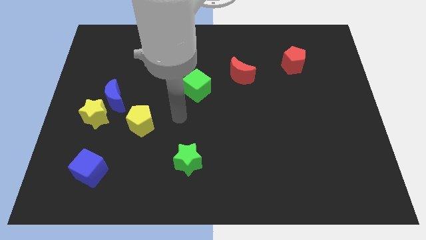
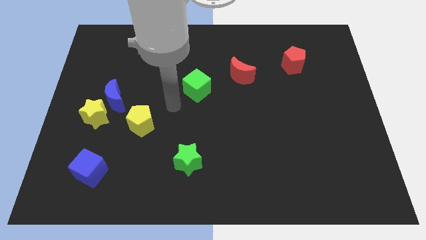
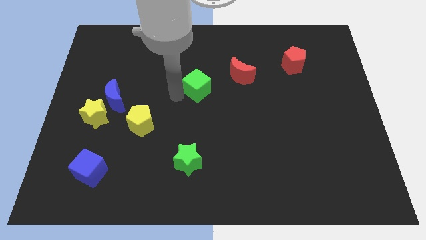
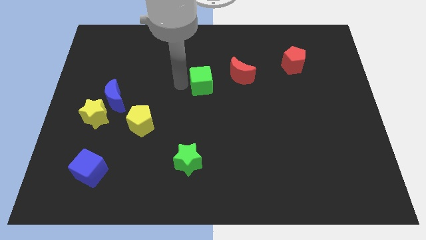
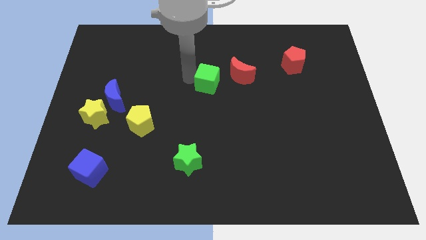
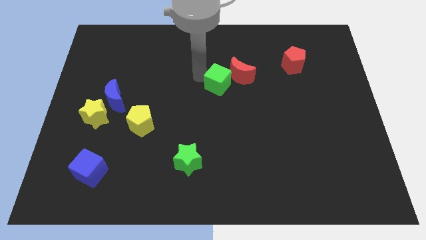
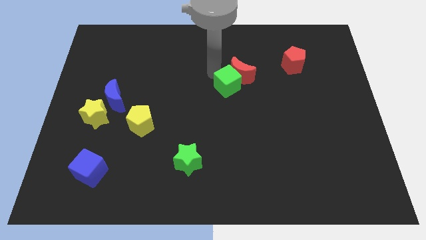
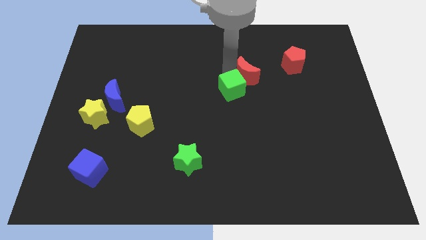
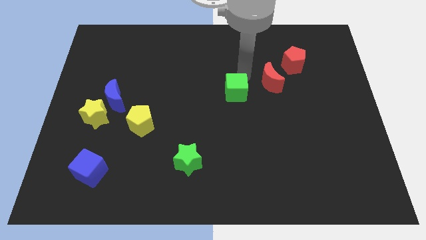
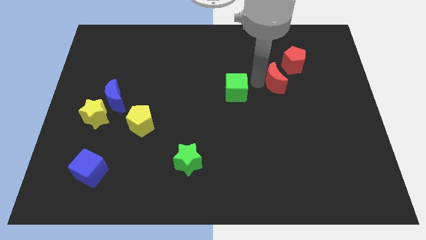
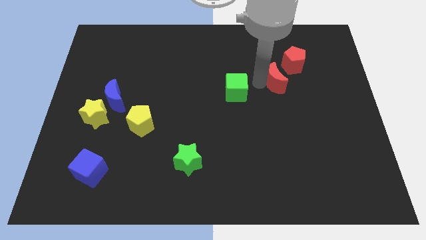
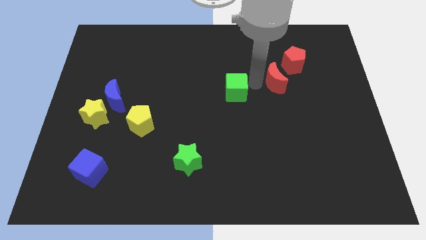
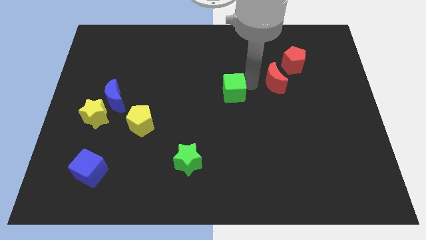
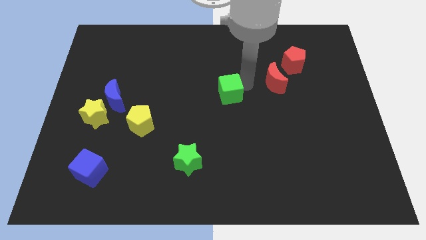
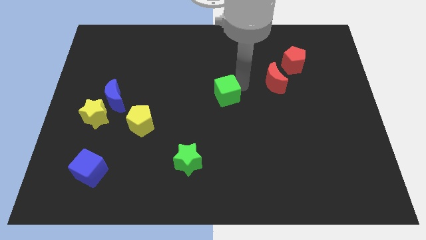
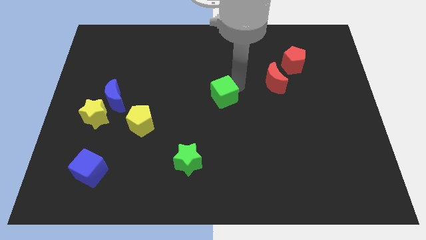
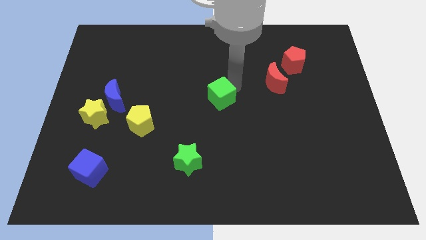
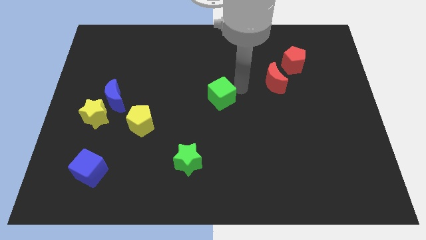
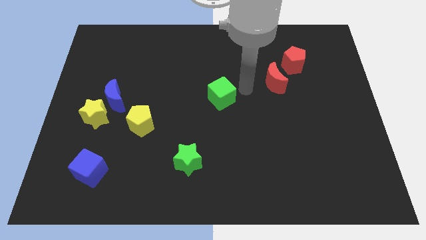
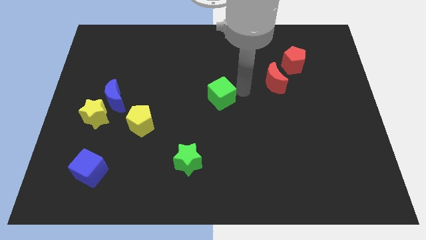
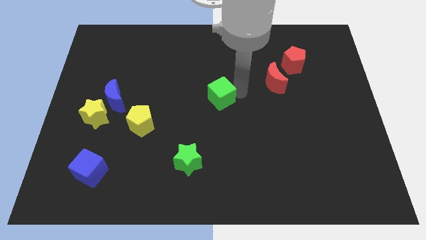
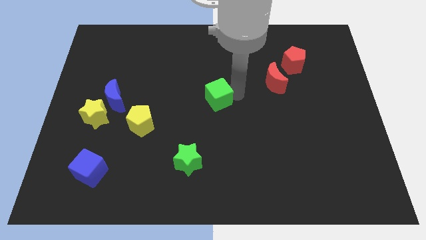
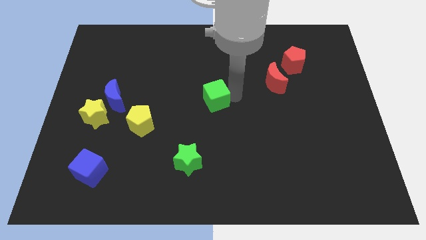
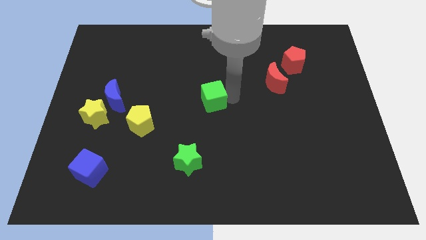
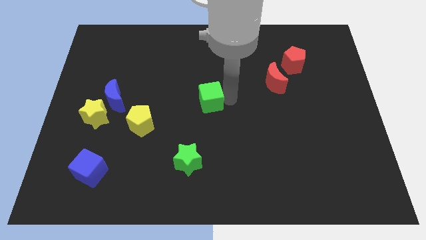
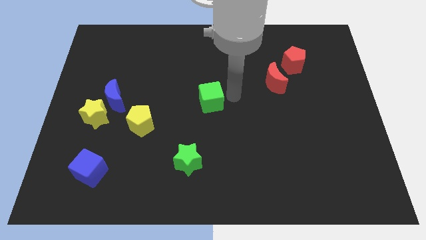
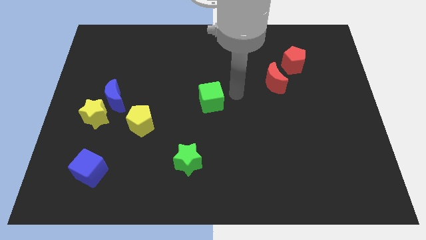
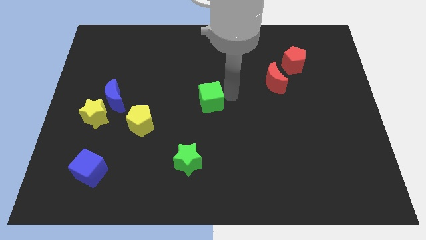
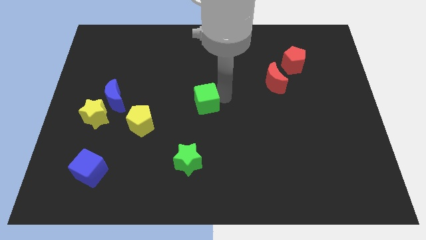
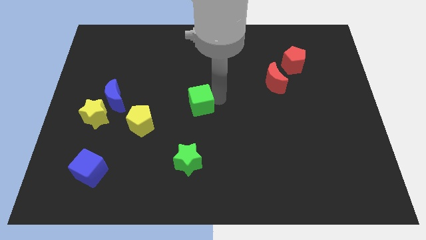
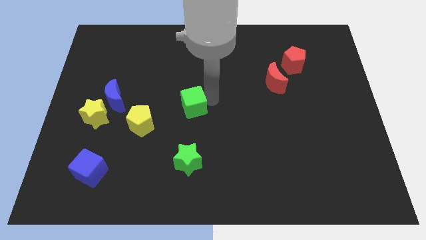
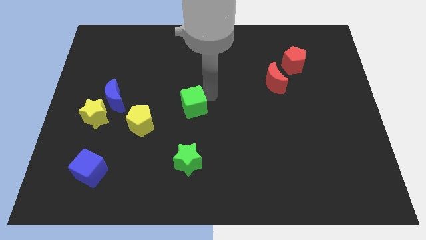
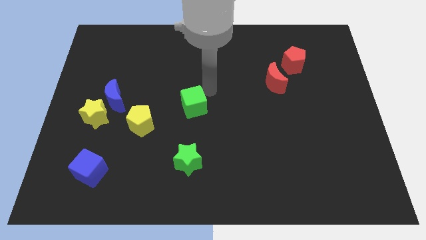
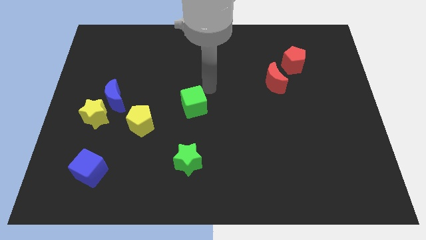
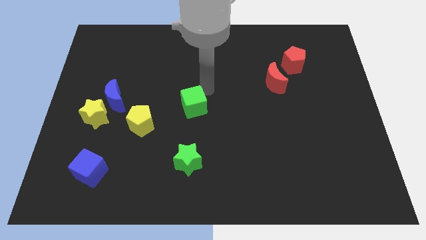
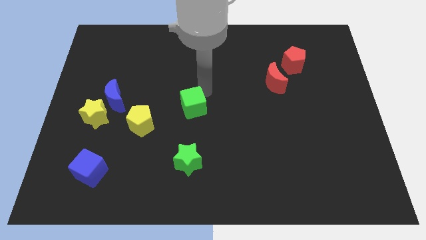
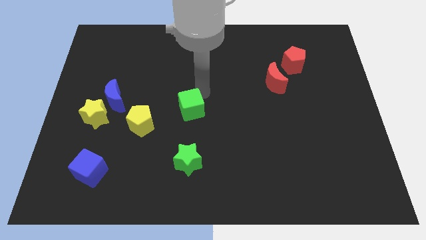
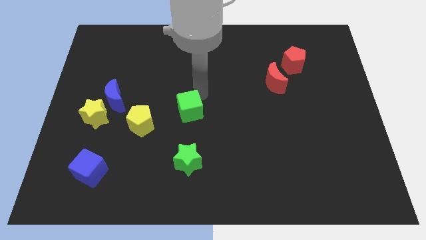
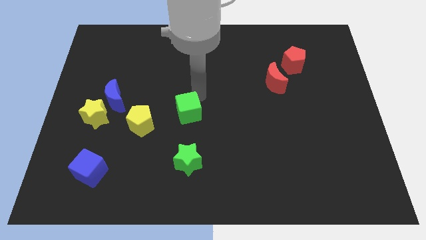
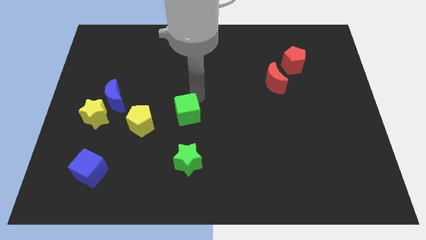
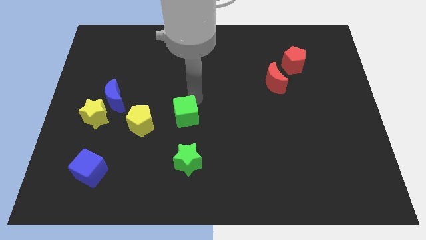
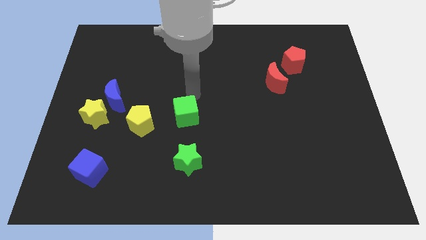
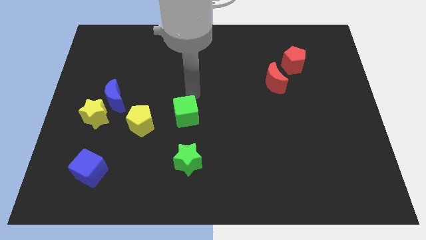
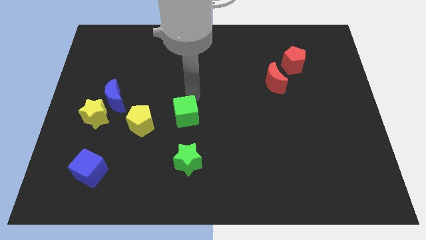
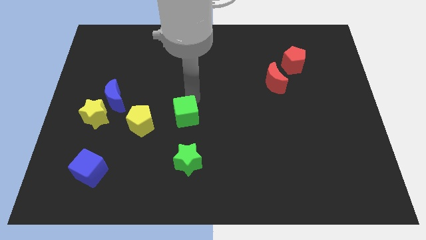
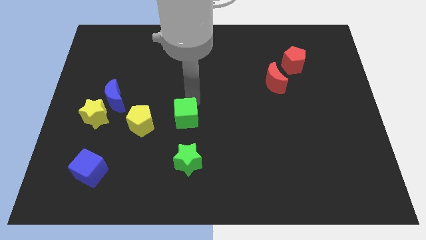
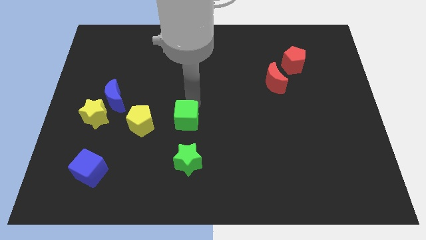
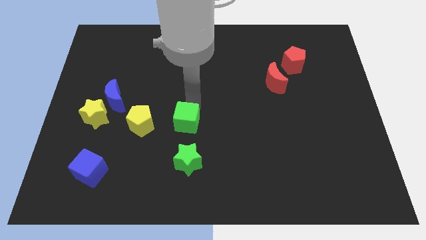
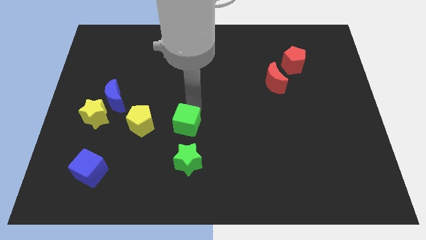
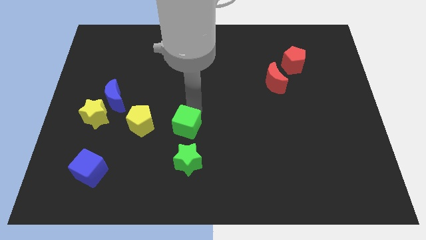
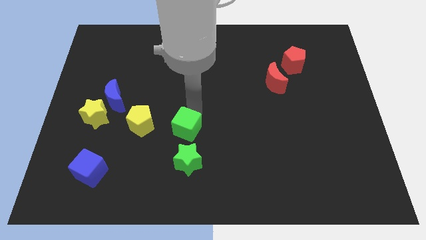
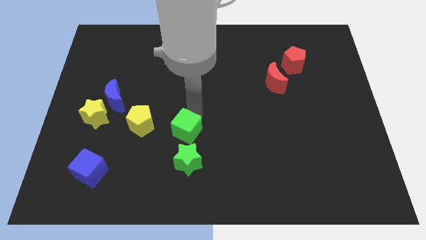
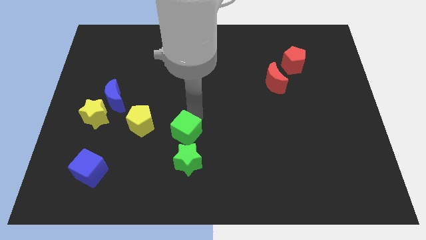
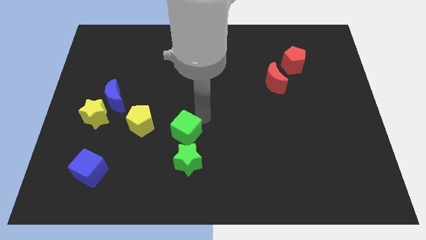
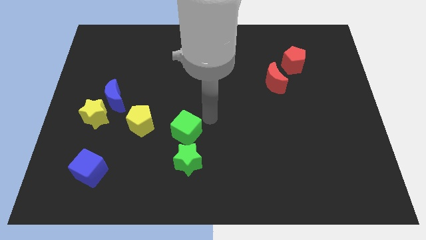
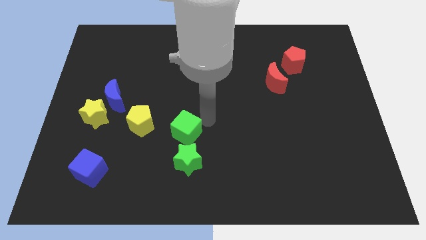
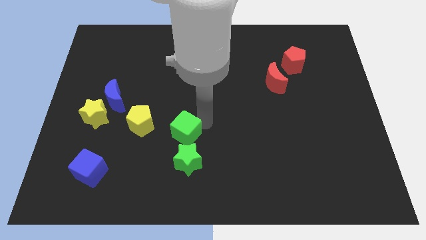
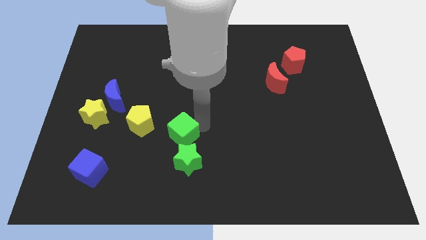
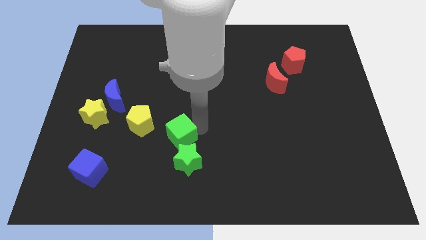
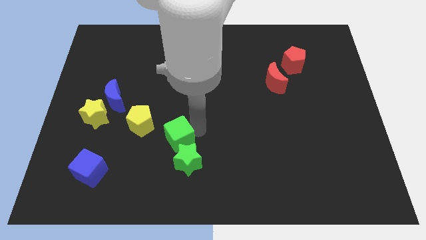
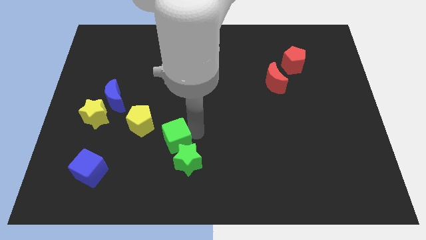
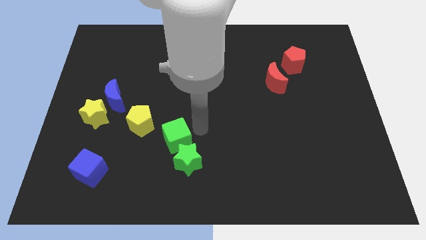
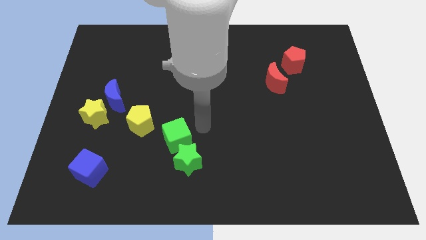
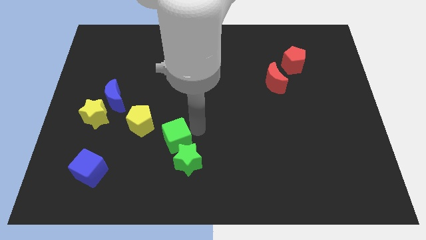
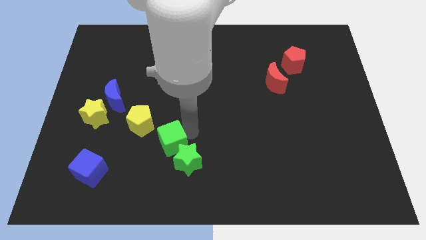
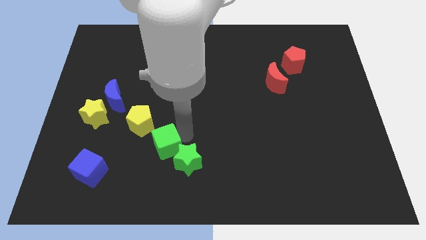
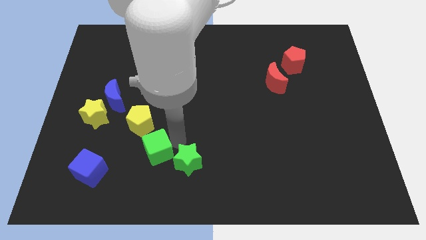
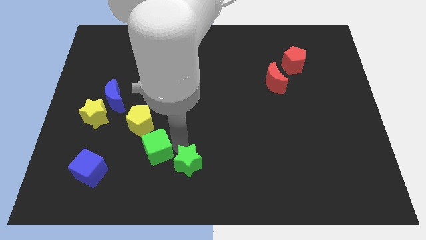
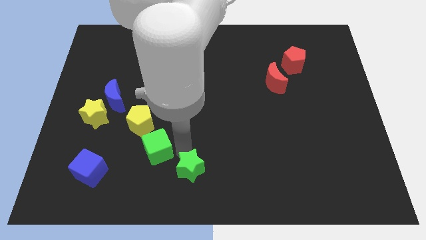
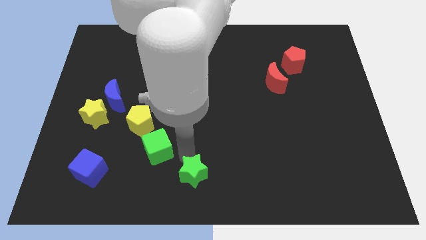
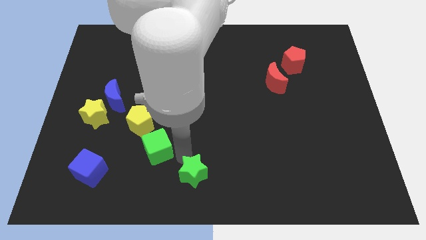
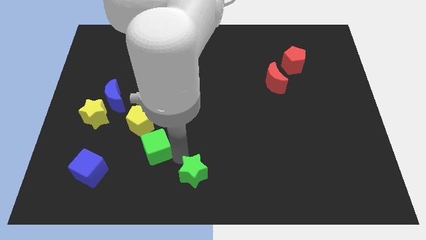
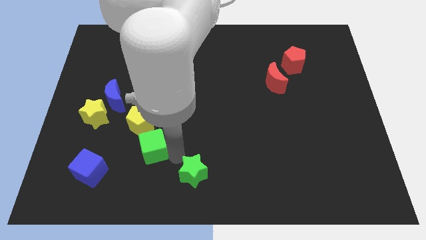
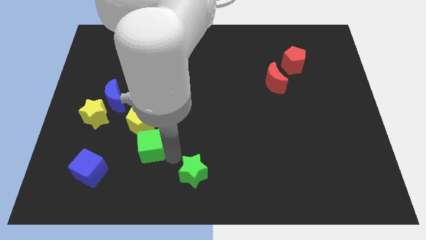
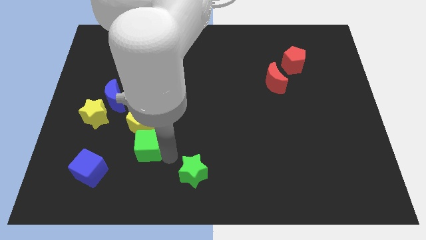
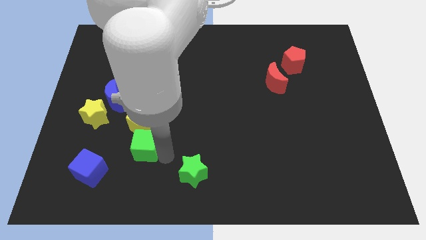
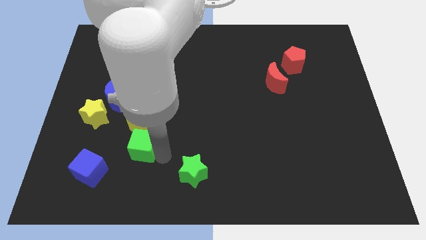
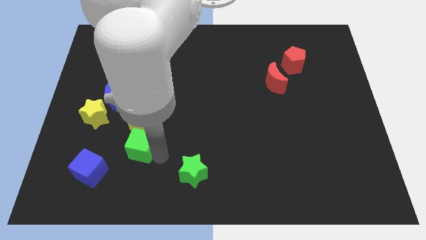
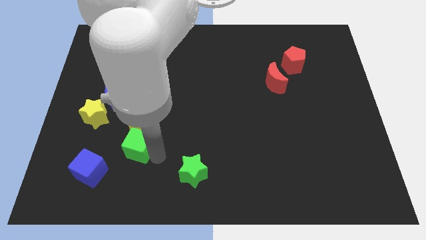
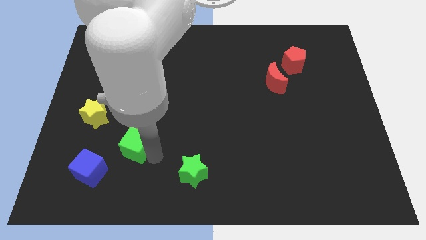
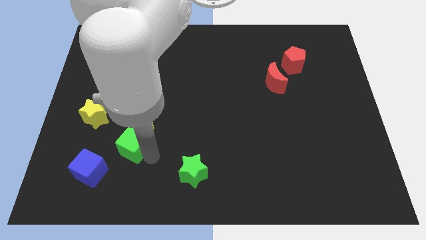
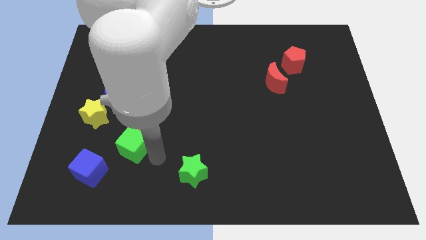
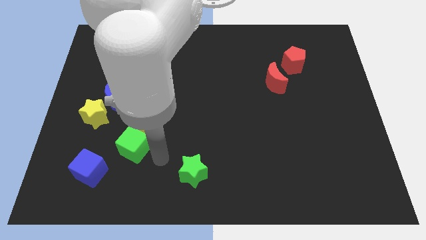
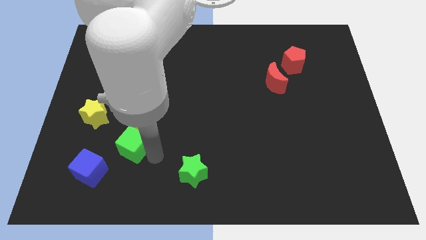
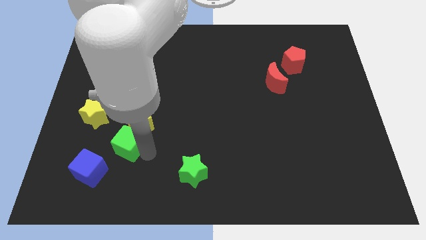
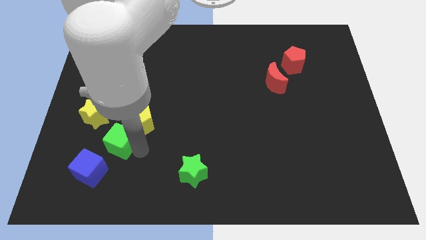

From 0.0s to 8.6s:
move the green cube below the blue moon
